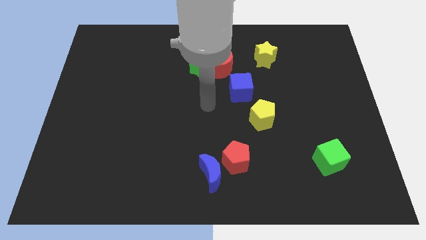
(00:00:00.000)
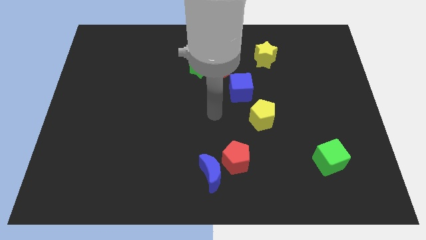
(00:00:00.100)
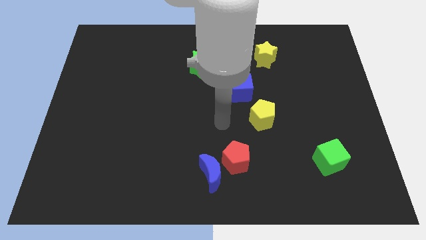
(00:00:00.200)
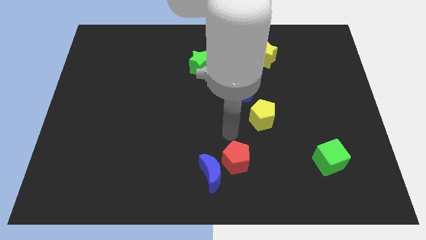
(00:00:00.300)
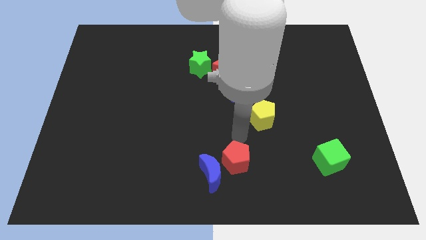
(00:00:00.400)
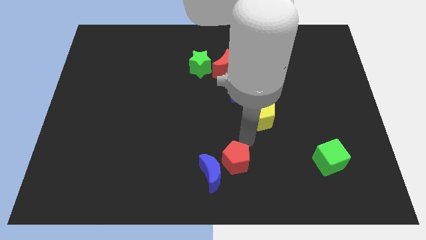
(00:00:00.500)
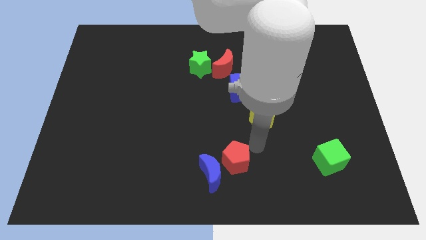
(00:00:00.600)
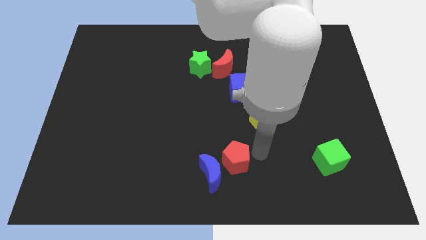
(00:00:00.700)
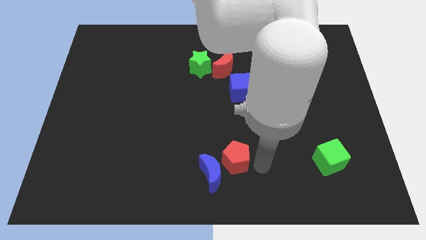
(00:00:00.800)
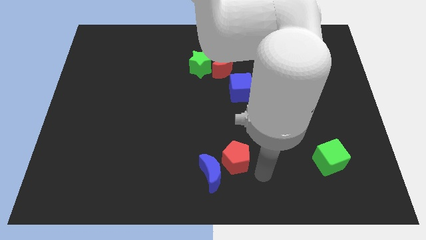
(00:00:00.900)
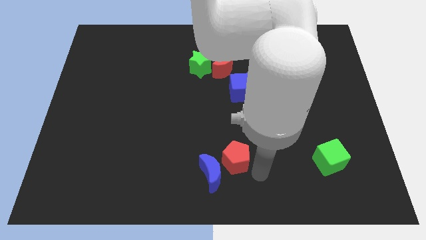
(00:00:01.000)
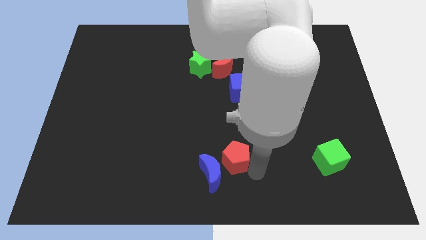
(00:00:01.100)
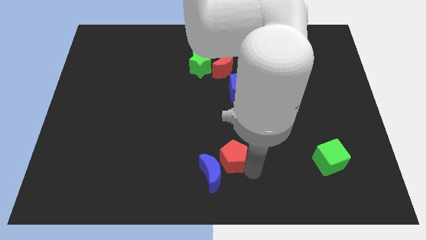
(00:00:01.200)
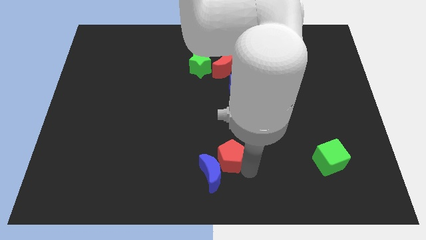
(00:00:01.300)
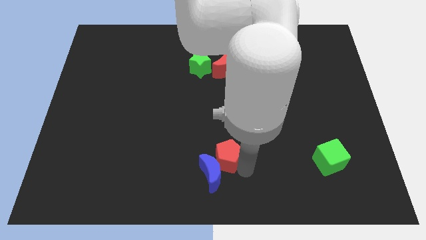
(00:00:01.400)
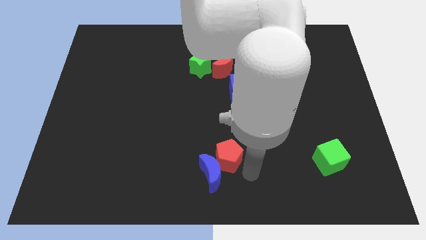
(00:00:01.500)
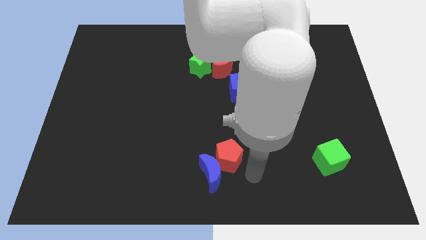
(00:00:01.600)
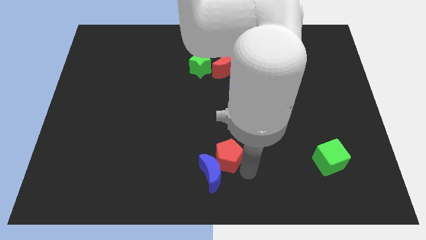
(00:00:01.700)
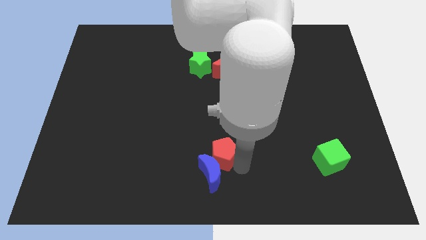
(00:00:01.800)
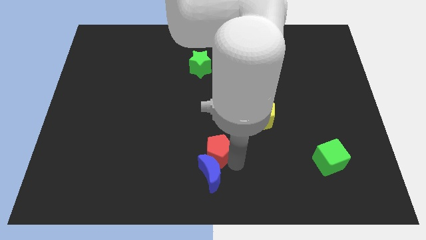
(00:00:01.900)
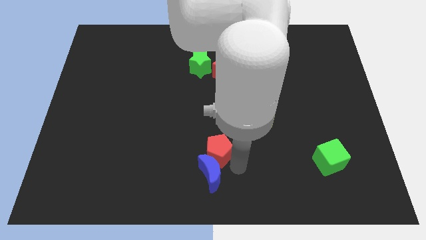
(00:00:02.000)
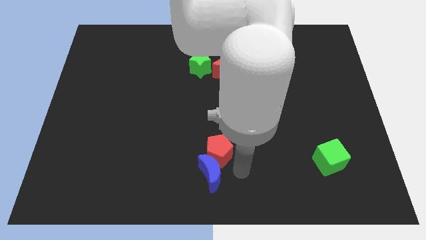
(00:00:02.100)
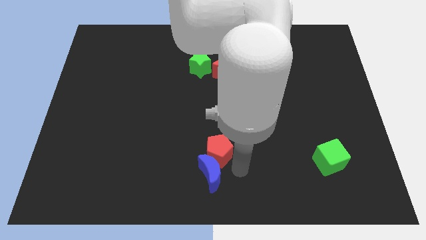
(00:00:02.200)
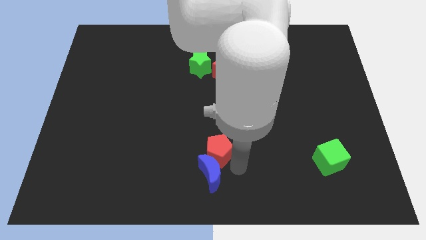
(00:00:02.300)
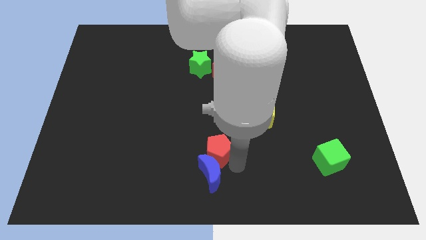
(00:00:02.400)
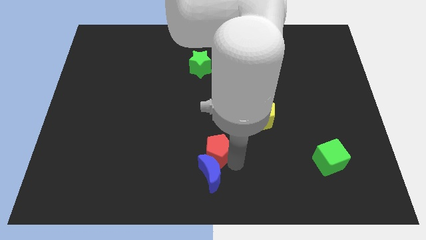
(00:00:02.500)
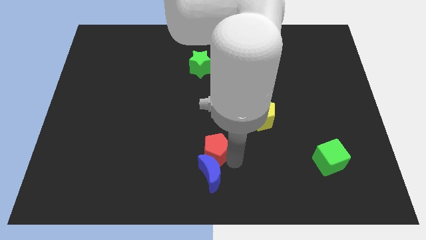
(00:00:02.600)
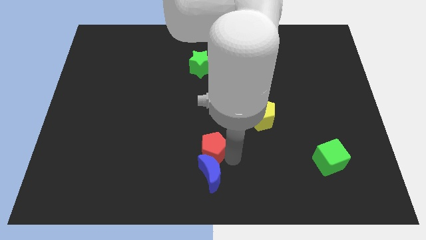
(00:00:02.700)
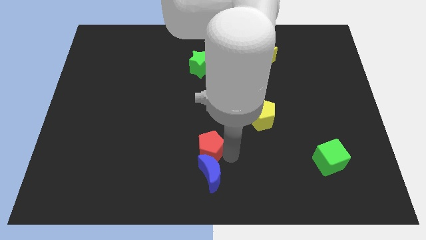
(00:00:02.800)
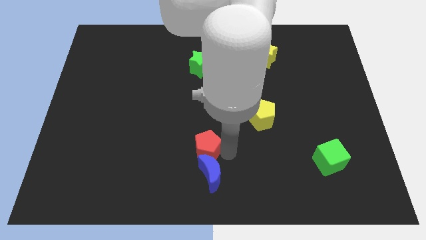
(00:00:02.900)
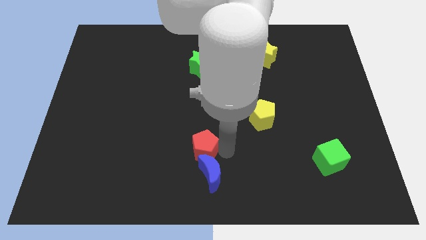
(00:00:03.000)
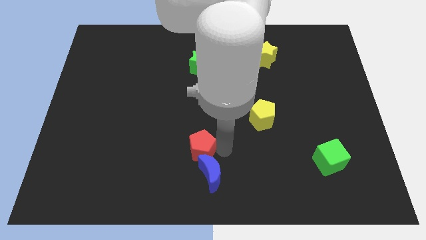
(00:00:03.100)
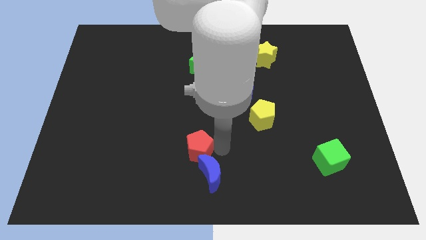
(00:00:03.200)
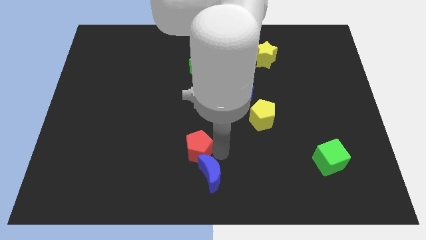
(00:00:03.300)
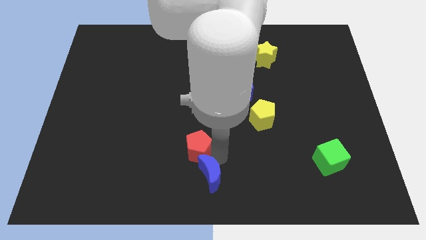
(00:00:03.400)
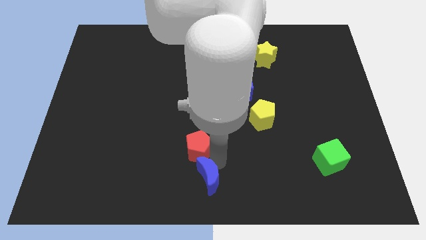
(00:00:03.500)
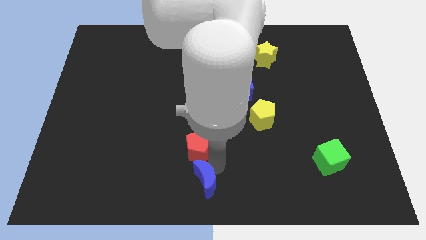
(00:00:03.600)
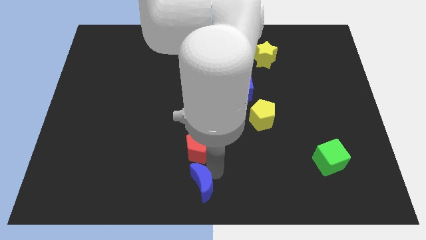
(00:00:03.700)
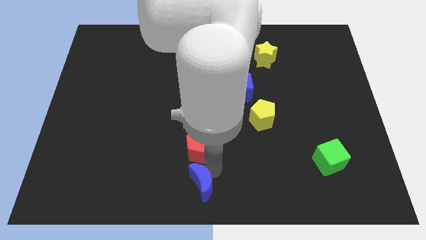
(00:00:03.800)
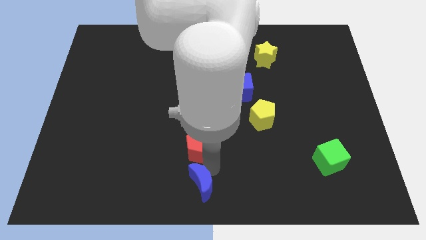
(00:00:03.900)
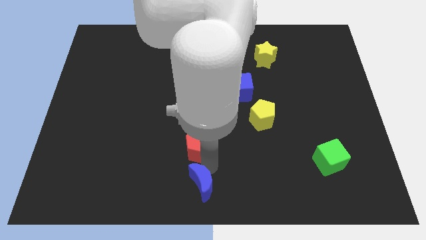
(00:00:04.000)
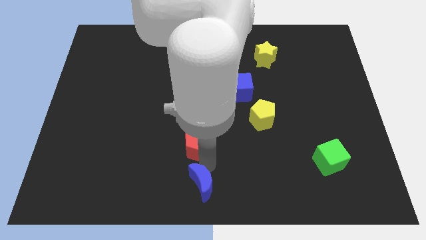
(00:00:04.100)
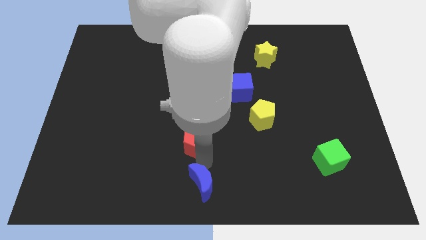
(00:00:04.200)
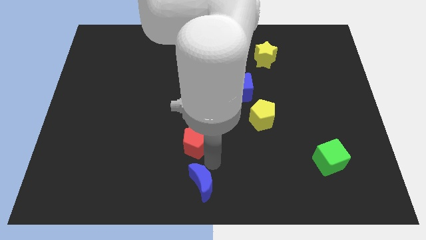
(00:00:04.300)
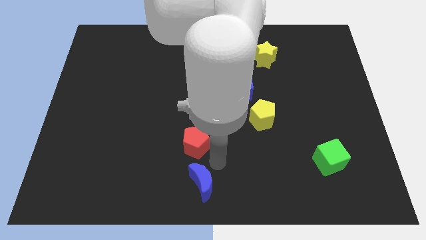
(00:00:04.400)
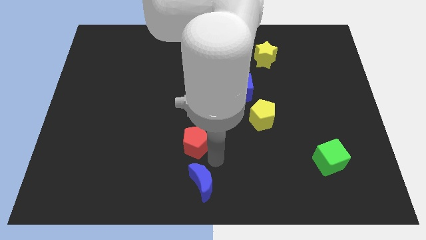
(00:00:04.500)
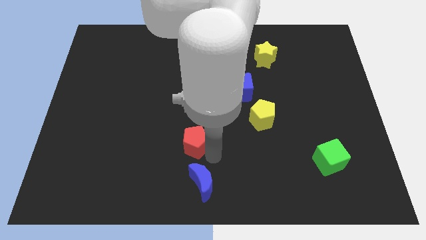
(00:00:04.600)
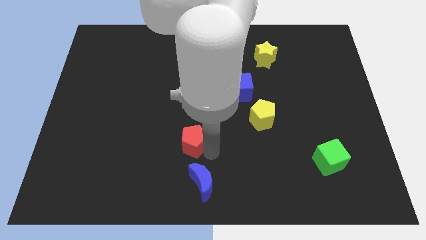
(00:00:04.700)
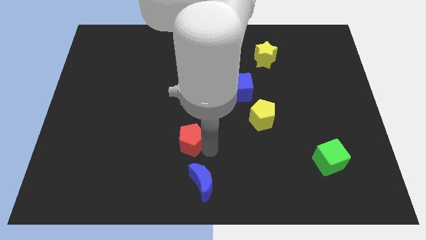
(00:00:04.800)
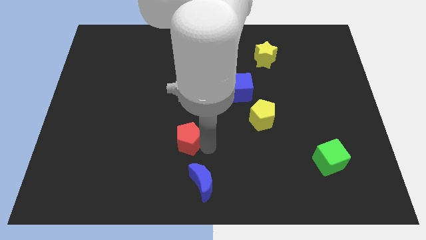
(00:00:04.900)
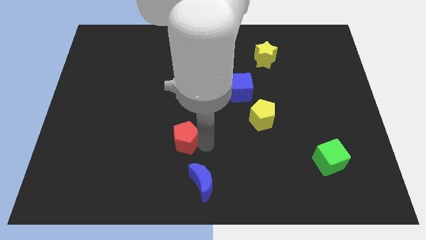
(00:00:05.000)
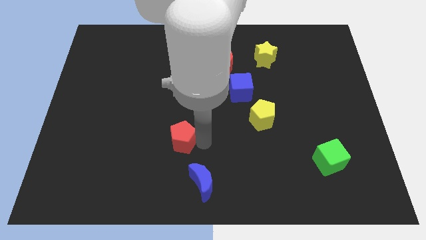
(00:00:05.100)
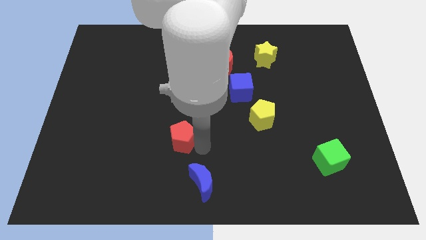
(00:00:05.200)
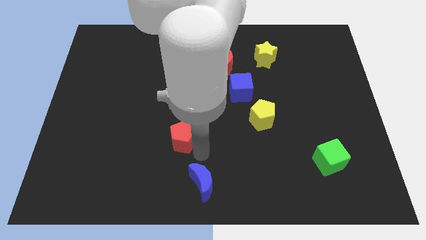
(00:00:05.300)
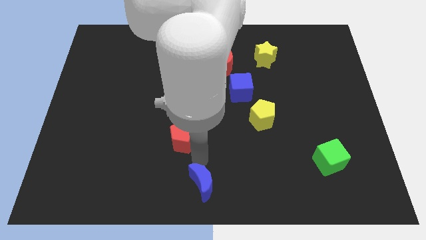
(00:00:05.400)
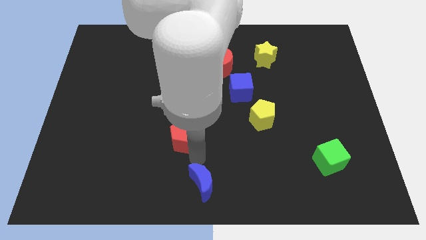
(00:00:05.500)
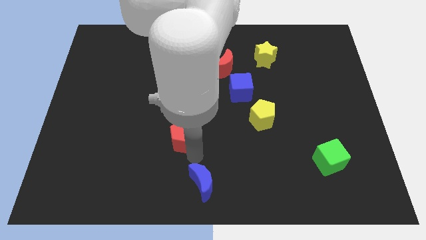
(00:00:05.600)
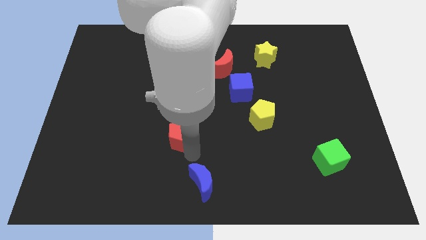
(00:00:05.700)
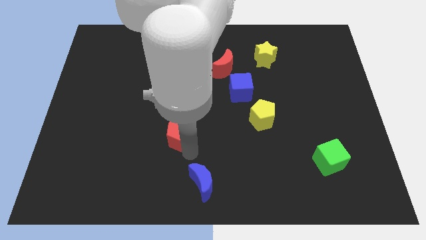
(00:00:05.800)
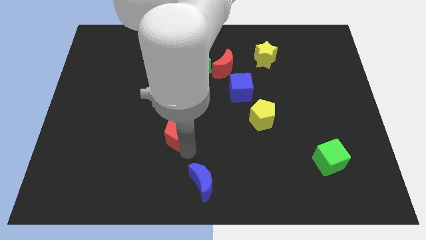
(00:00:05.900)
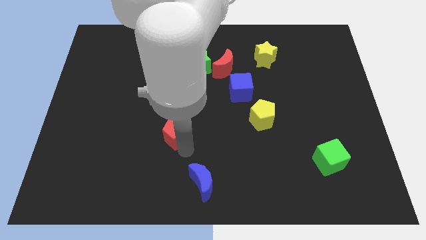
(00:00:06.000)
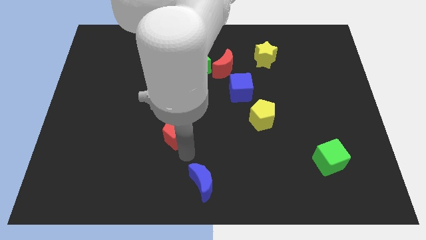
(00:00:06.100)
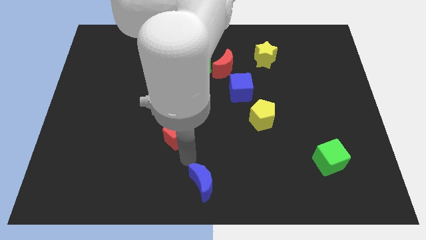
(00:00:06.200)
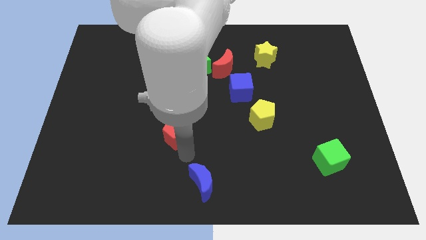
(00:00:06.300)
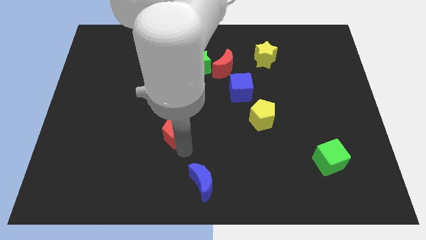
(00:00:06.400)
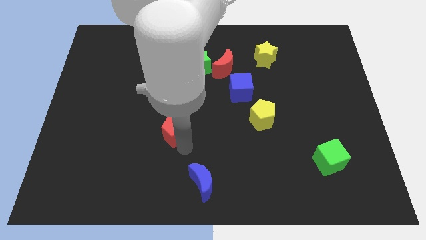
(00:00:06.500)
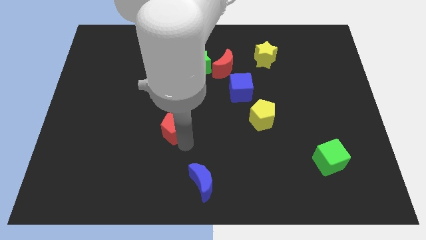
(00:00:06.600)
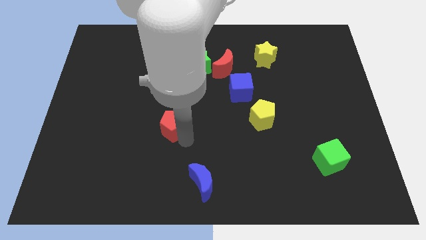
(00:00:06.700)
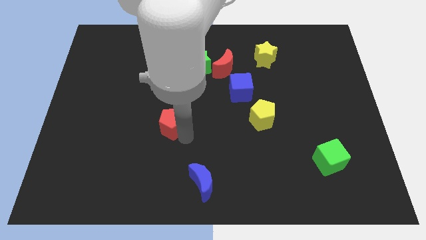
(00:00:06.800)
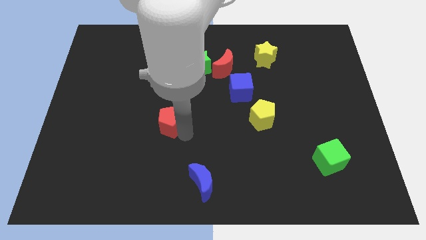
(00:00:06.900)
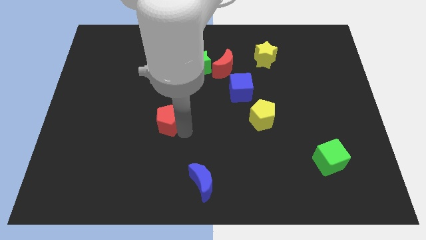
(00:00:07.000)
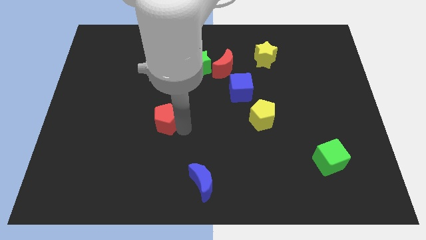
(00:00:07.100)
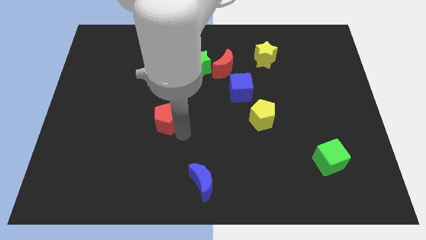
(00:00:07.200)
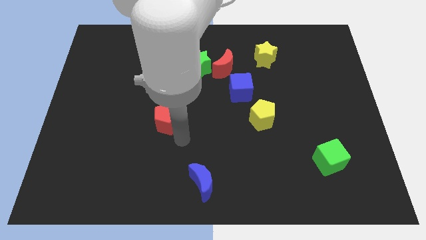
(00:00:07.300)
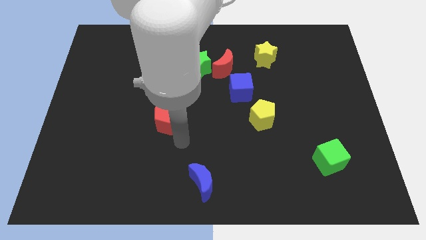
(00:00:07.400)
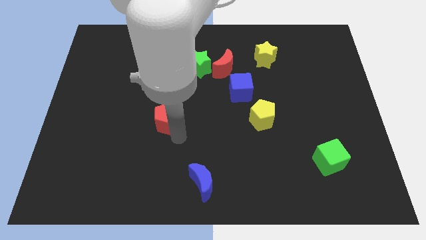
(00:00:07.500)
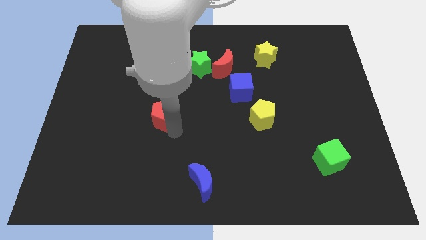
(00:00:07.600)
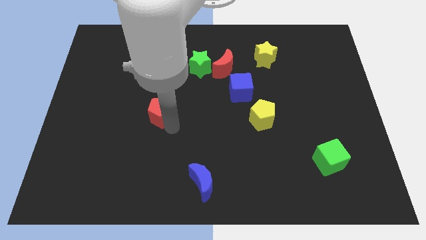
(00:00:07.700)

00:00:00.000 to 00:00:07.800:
push the red pentagon diagonally up and to the left
